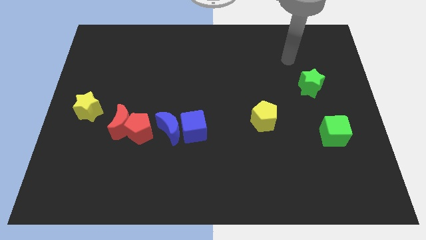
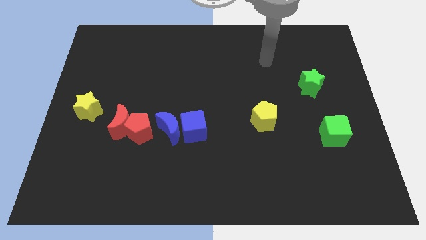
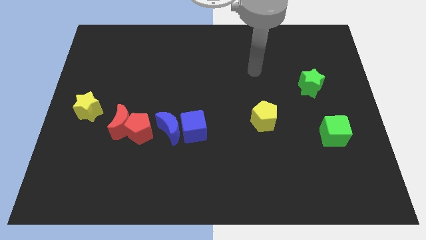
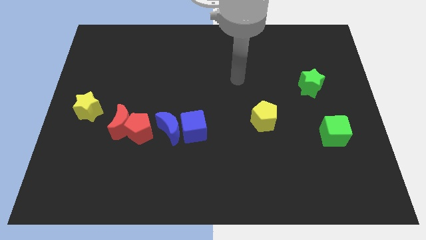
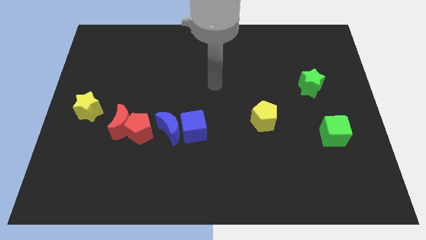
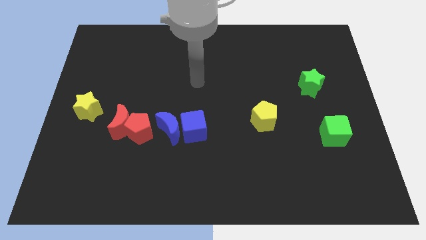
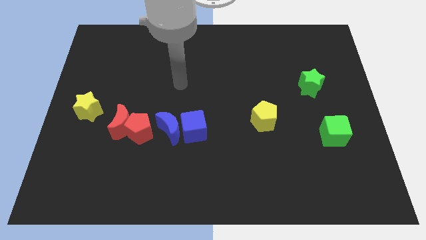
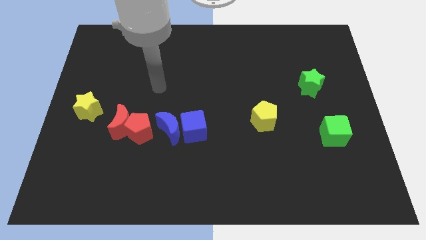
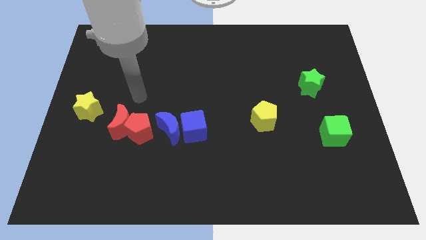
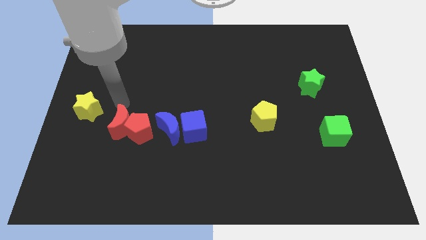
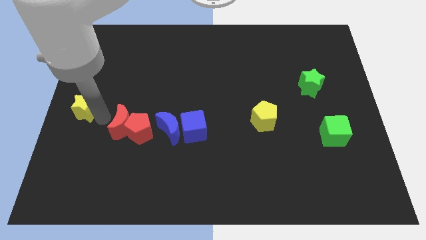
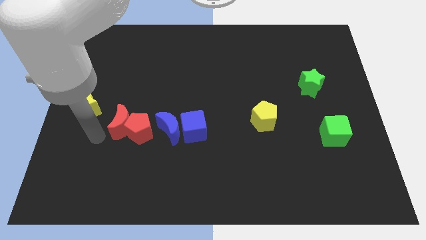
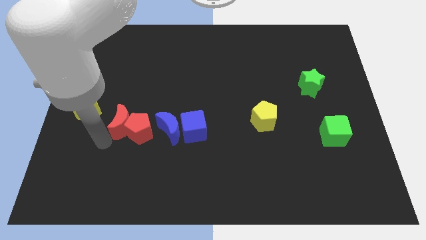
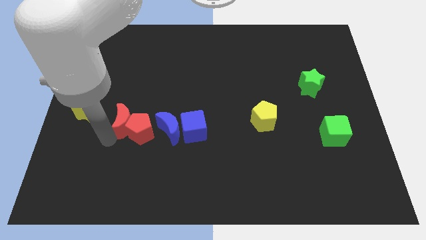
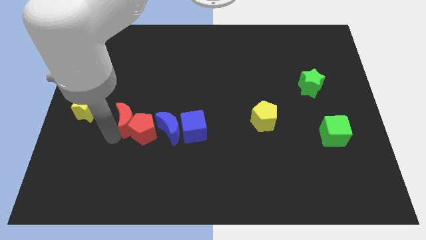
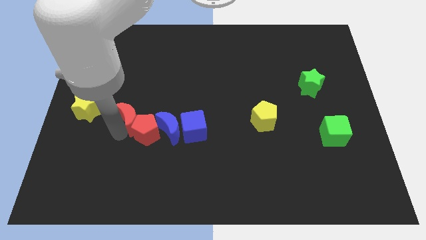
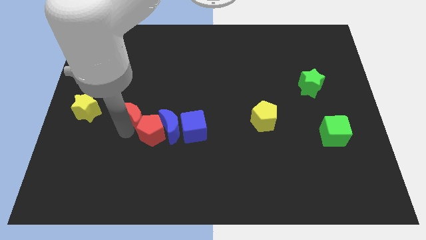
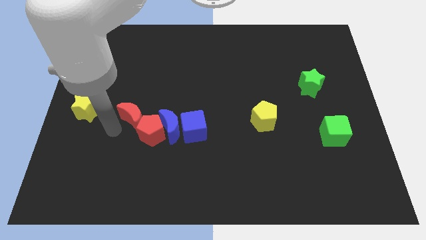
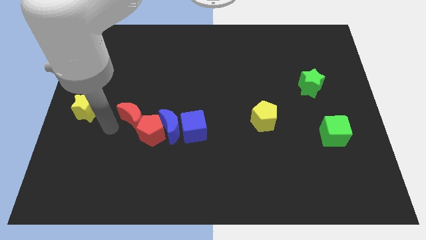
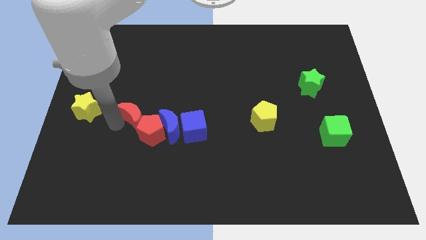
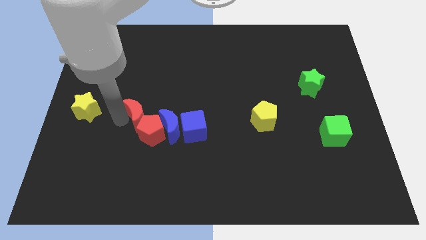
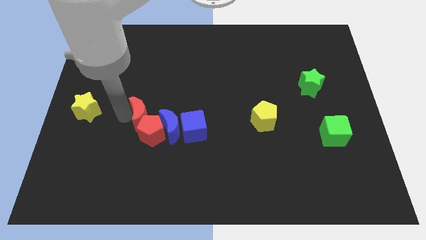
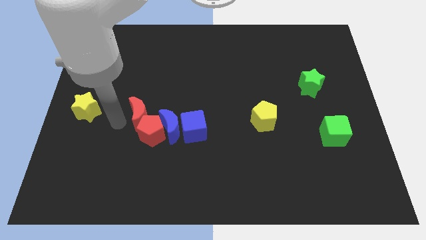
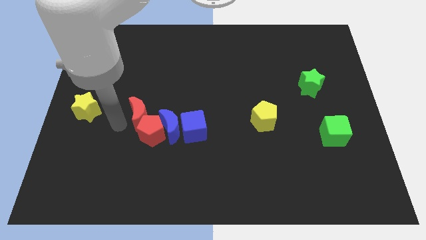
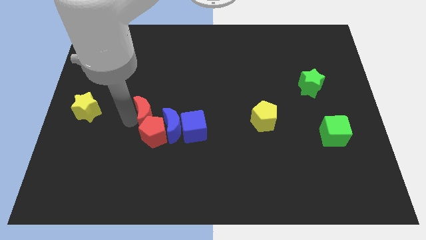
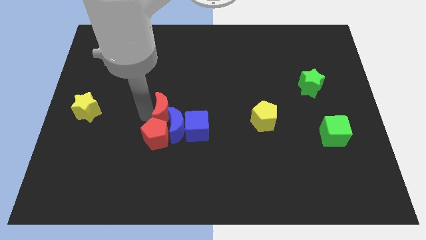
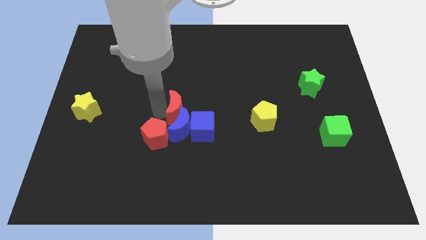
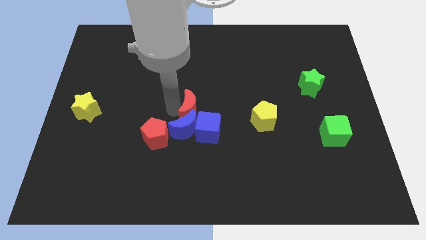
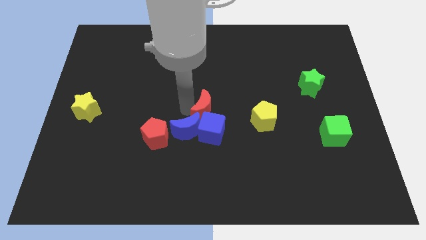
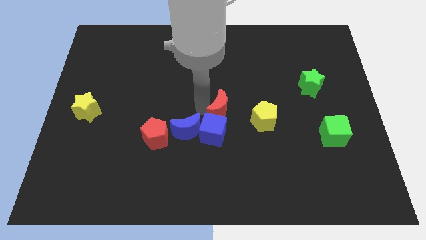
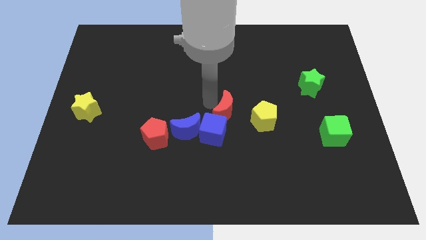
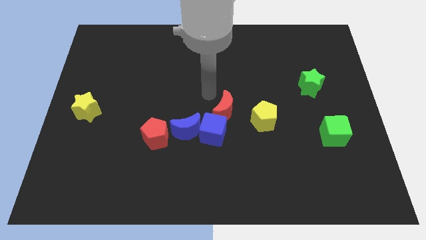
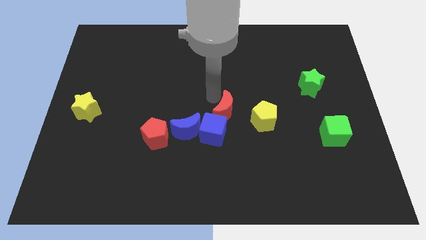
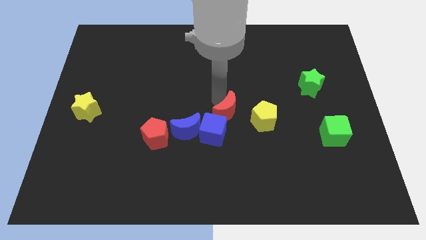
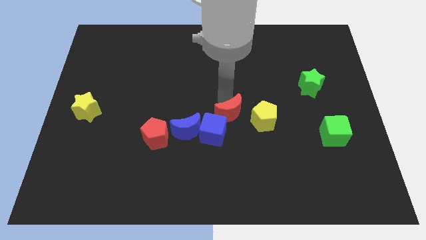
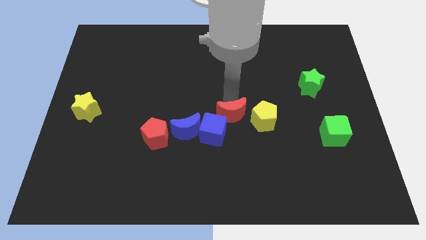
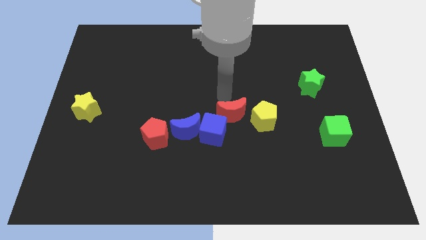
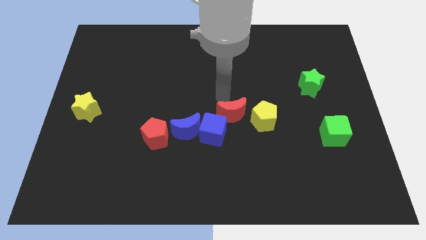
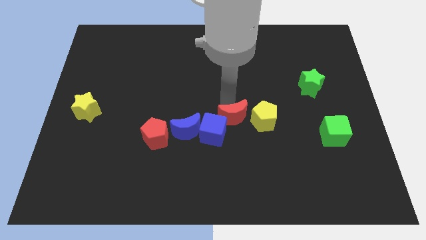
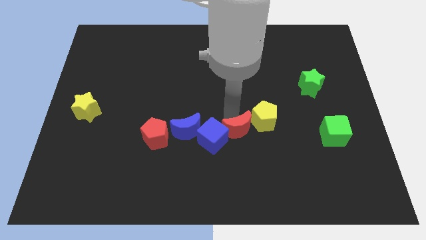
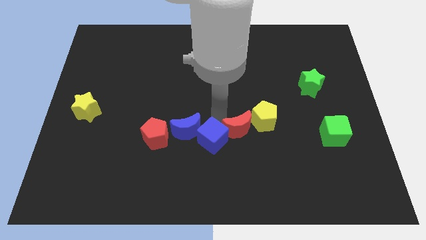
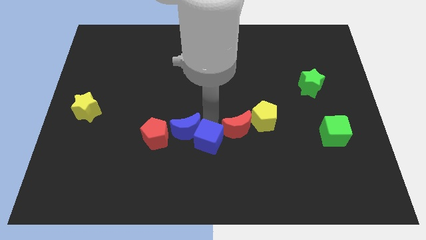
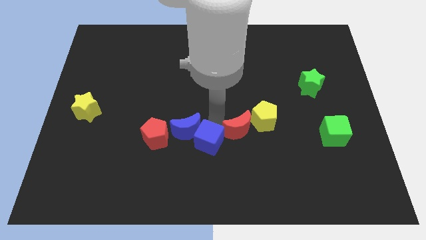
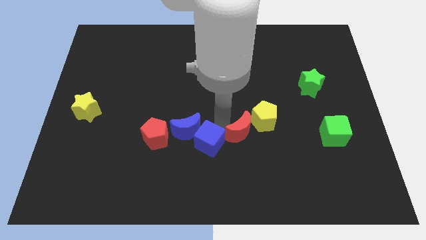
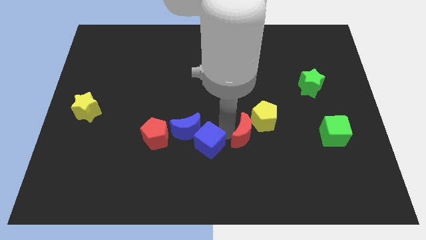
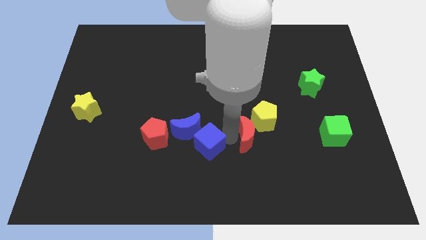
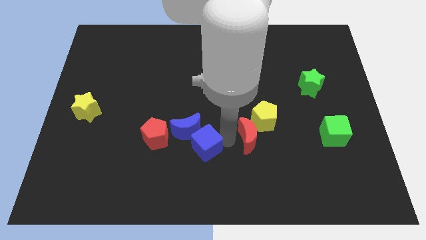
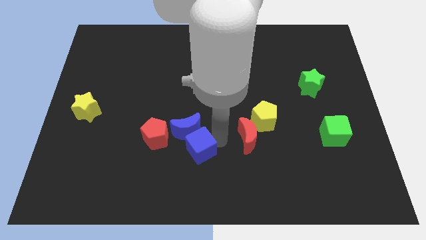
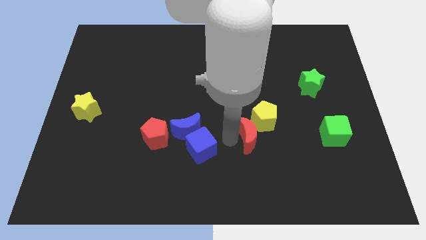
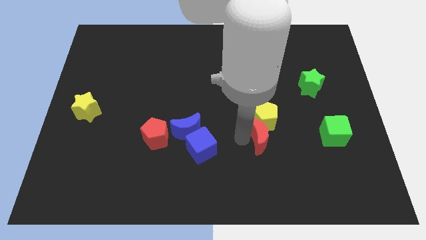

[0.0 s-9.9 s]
move the red moon diagonally down and to the right of the yellow pentagon

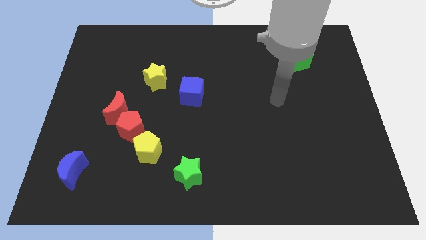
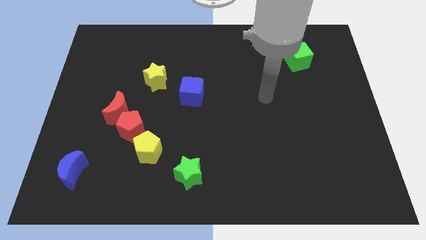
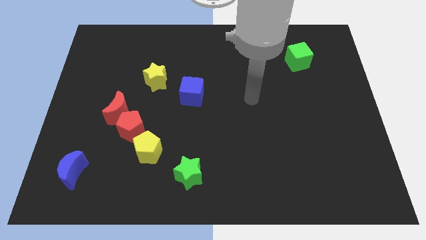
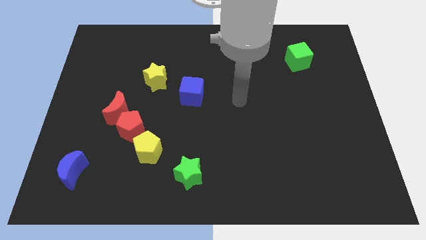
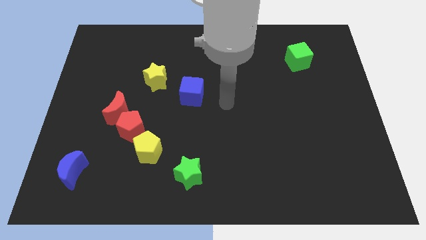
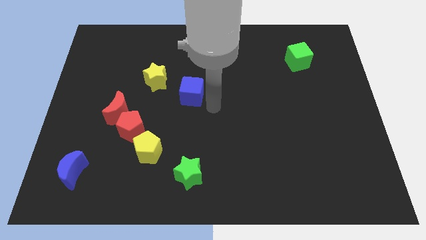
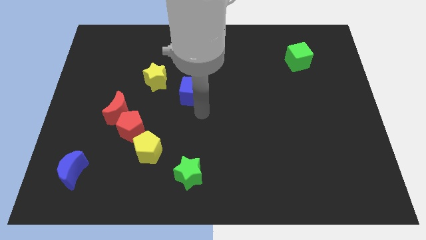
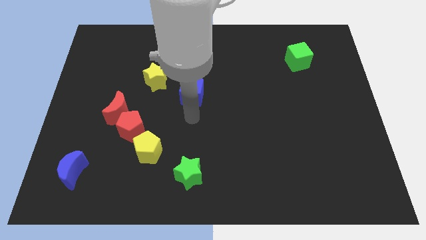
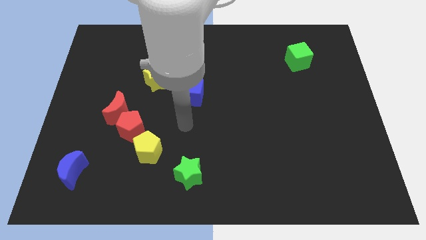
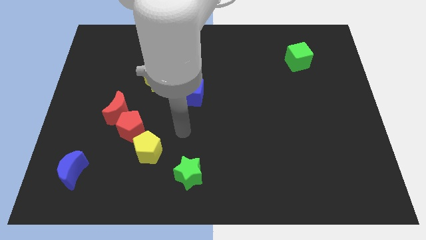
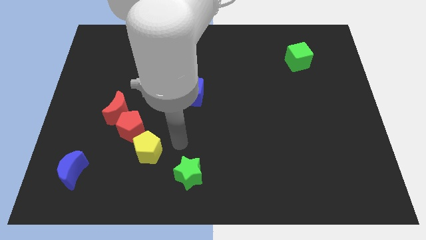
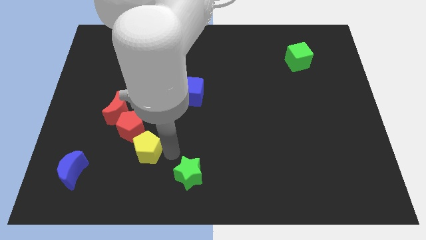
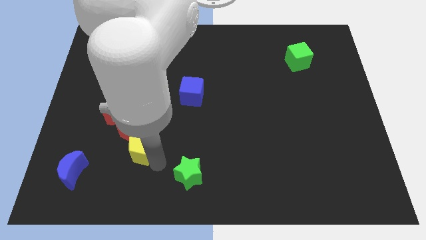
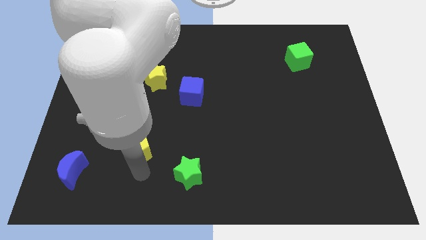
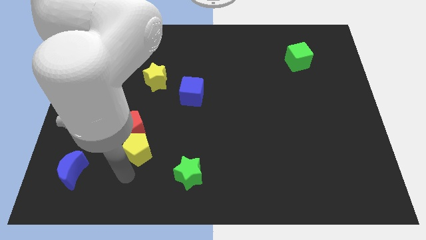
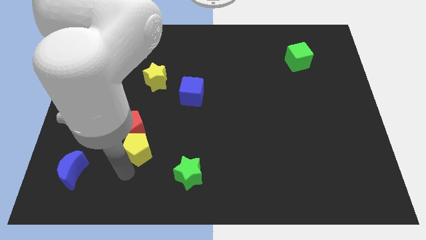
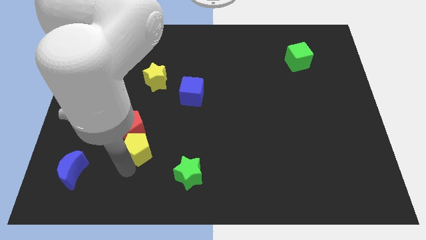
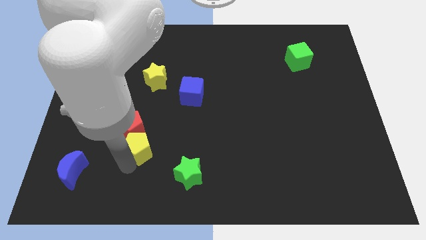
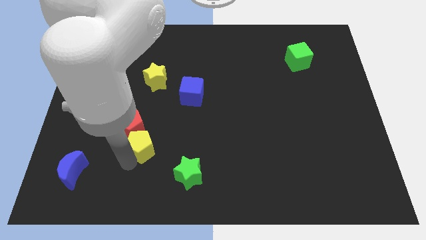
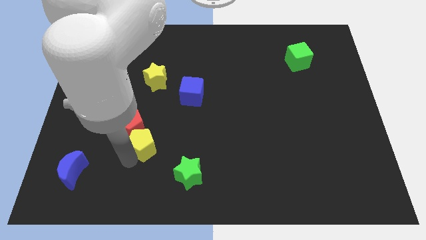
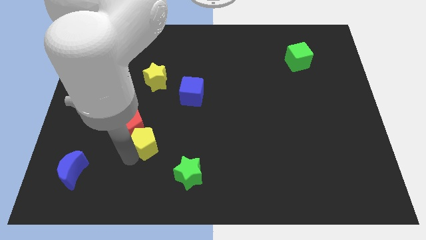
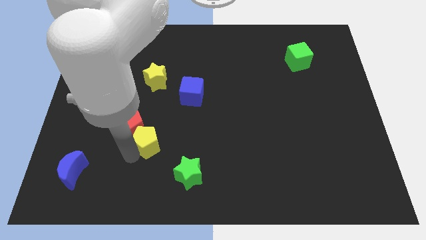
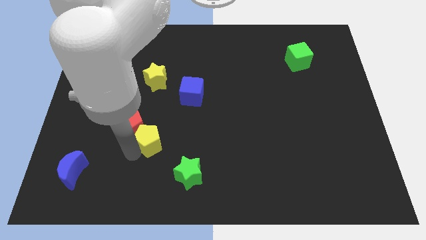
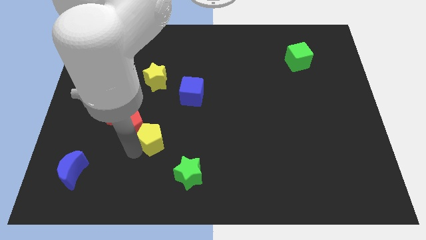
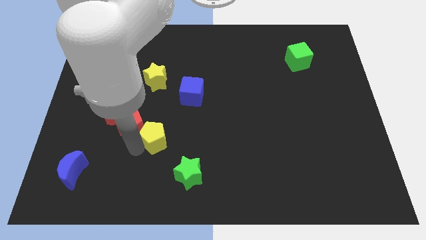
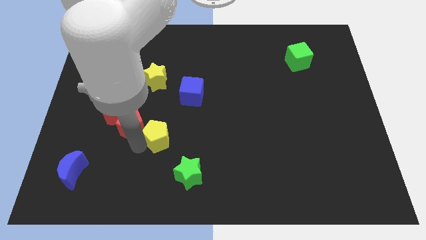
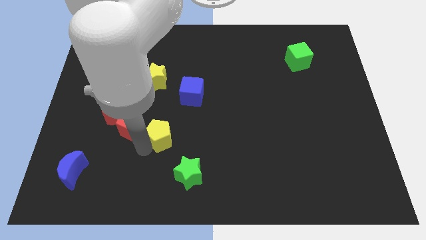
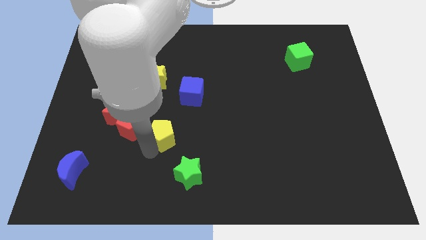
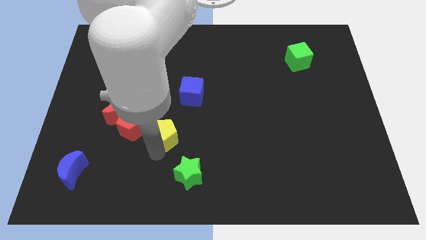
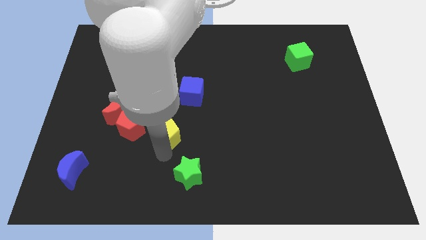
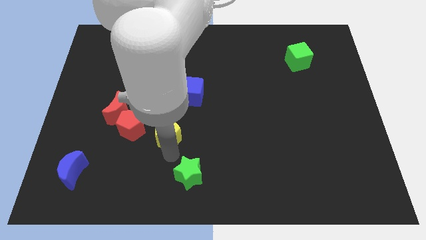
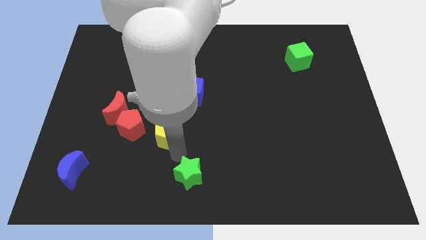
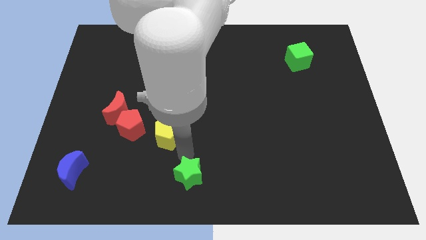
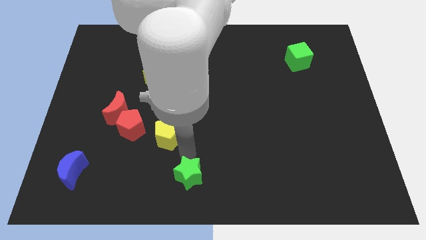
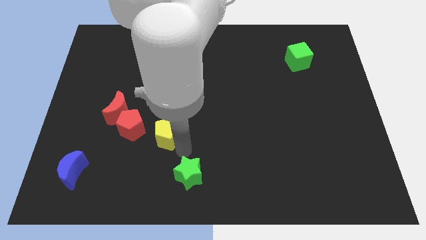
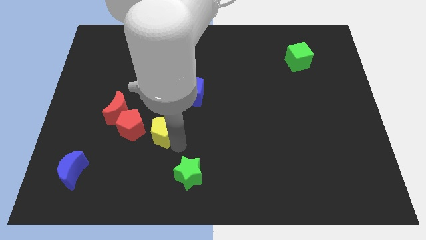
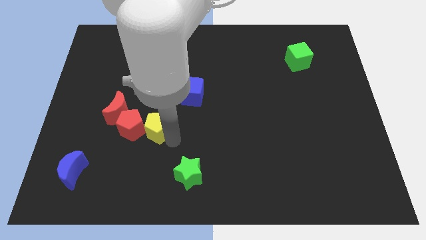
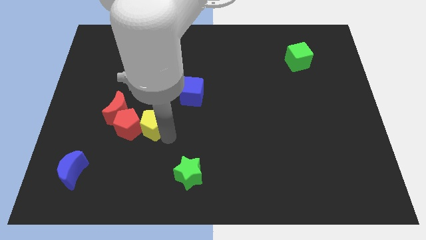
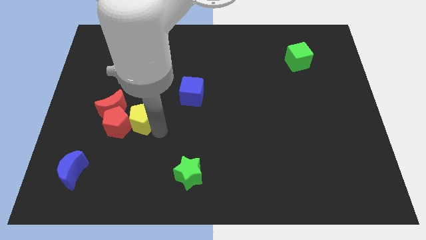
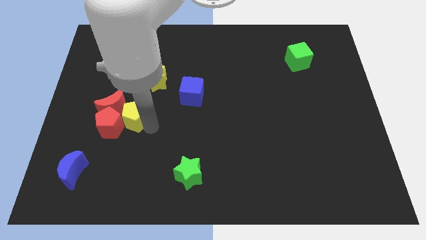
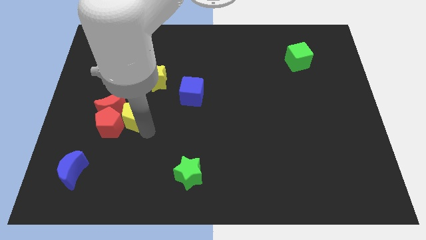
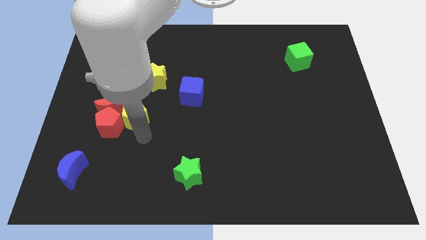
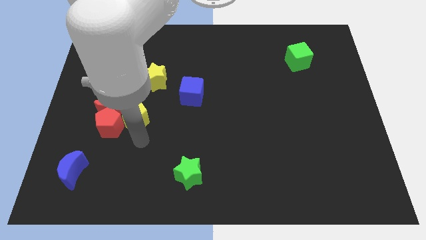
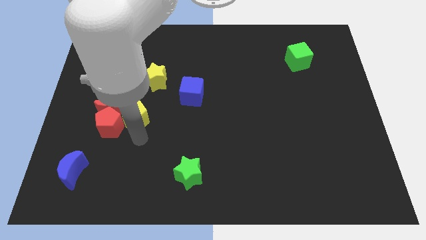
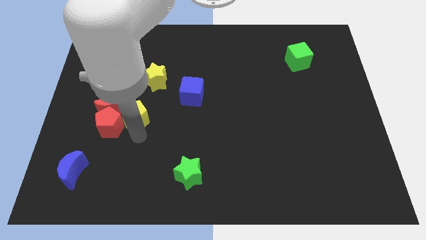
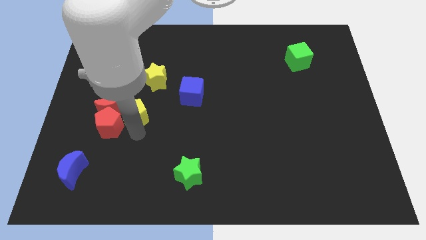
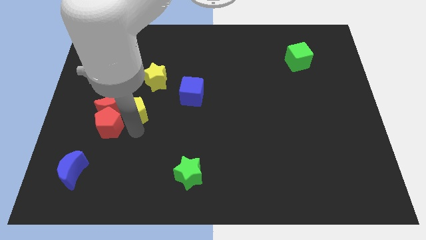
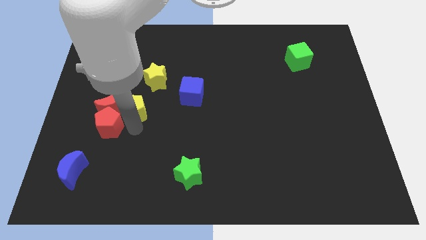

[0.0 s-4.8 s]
move the yellow pentagon to the bottom left of the yellow star
